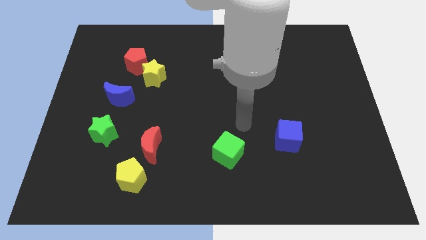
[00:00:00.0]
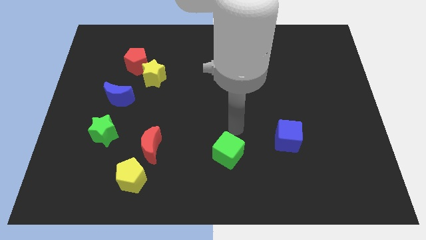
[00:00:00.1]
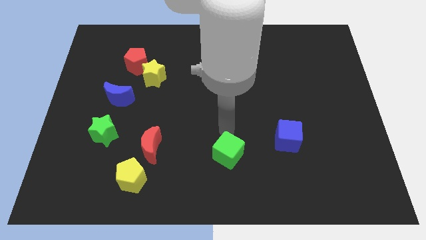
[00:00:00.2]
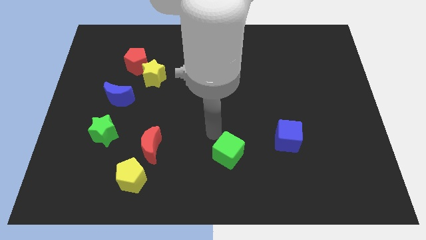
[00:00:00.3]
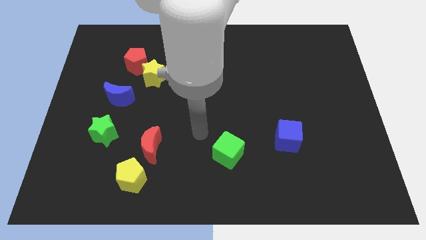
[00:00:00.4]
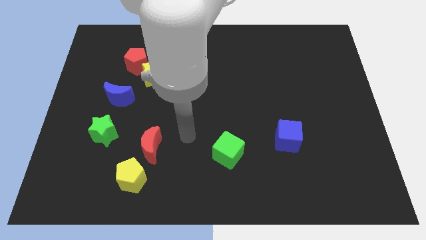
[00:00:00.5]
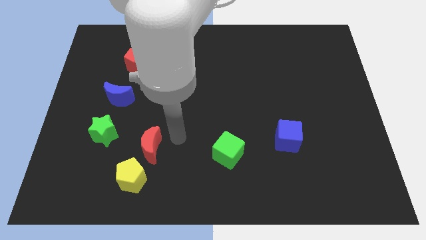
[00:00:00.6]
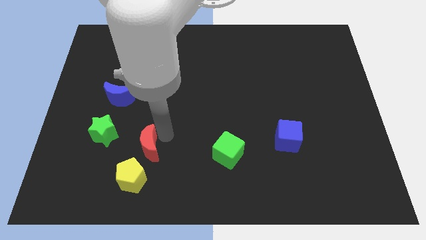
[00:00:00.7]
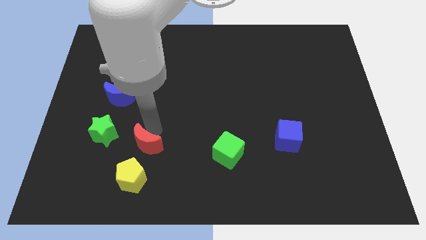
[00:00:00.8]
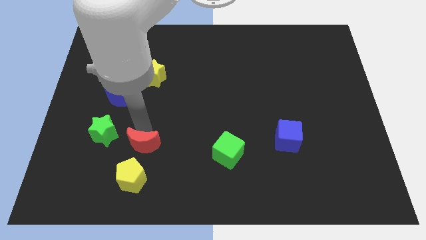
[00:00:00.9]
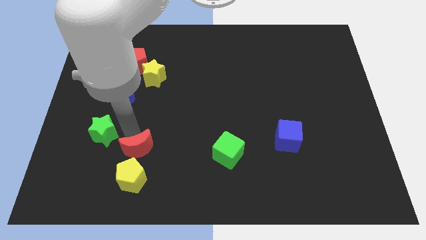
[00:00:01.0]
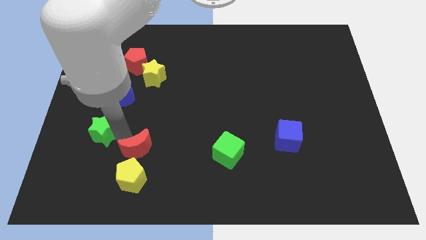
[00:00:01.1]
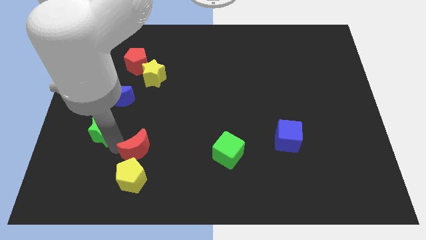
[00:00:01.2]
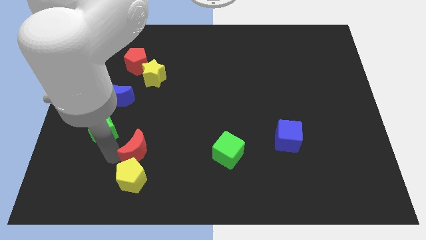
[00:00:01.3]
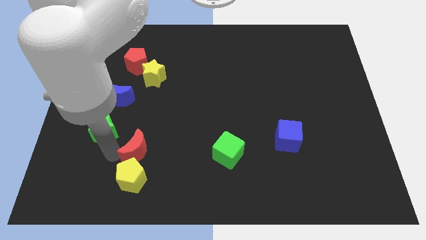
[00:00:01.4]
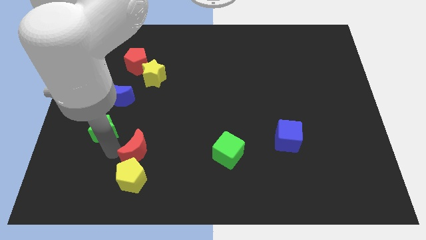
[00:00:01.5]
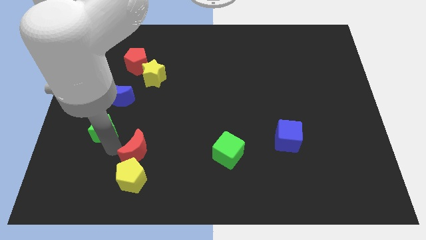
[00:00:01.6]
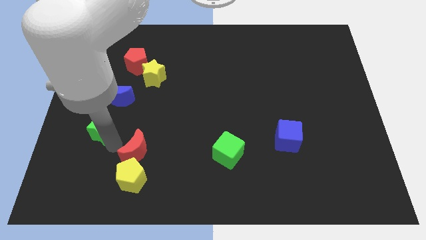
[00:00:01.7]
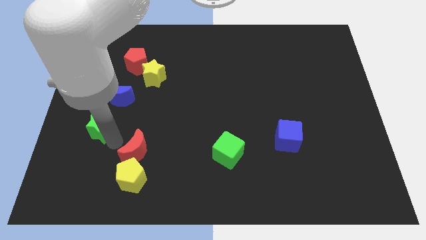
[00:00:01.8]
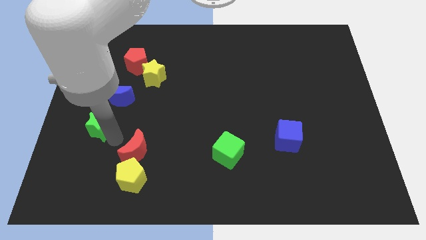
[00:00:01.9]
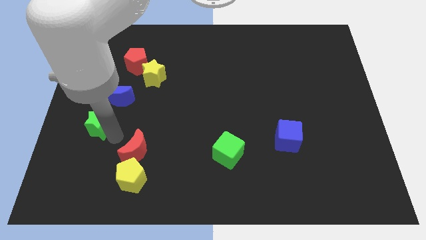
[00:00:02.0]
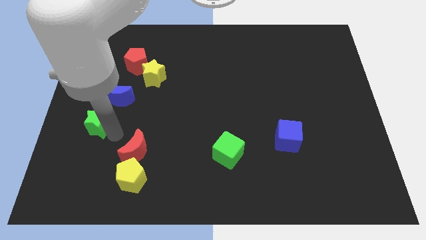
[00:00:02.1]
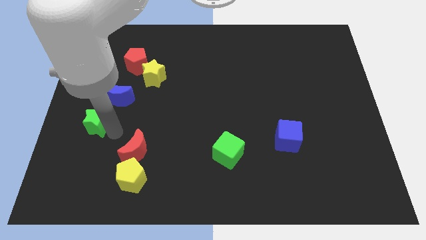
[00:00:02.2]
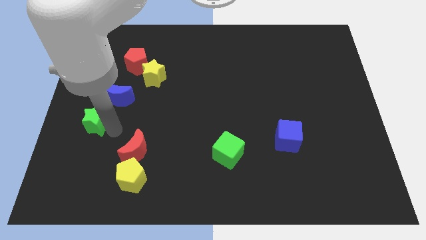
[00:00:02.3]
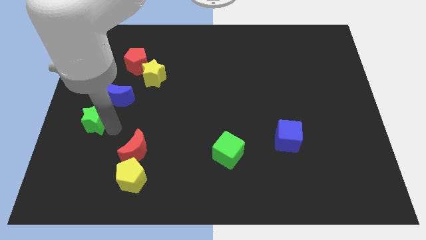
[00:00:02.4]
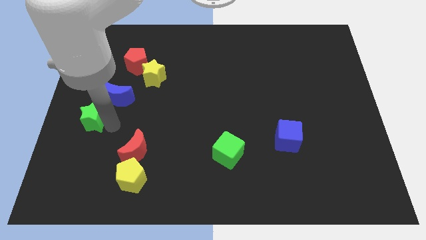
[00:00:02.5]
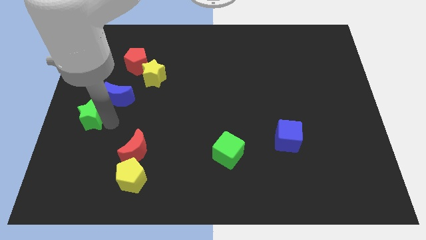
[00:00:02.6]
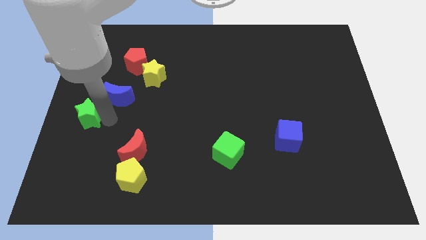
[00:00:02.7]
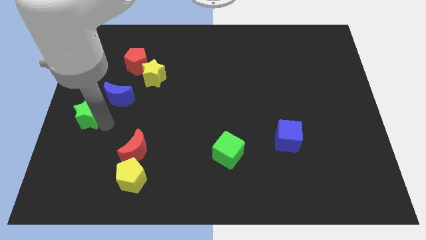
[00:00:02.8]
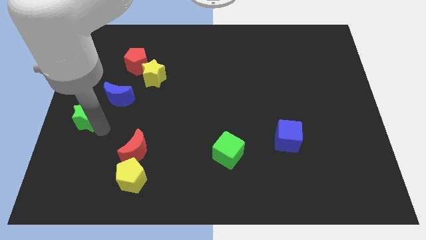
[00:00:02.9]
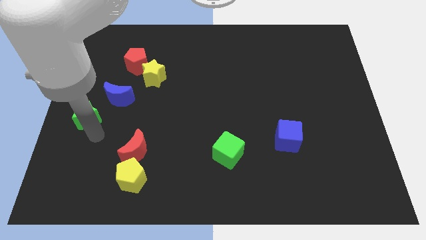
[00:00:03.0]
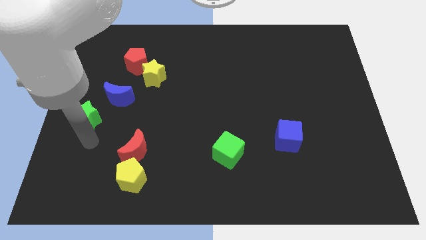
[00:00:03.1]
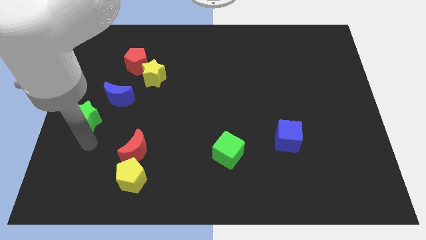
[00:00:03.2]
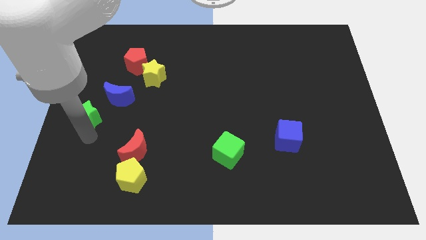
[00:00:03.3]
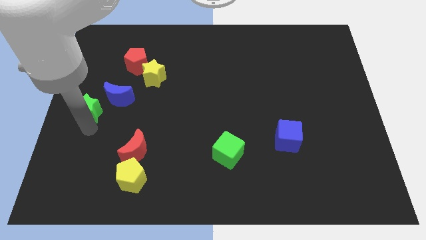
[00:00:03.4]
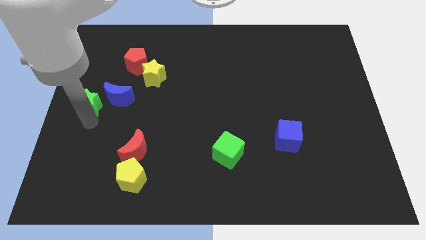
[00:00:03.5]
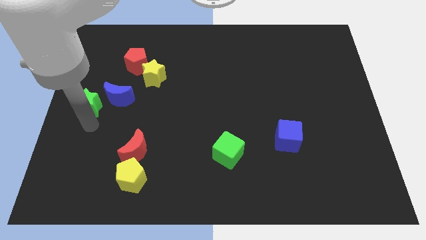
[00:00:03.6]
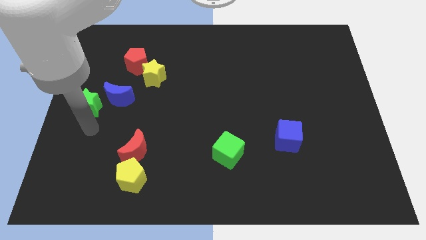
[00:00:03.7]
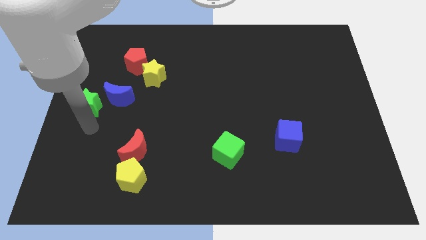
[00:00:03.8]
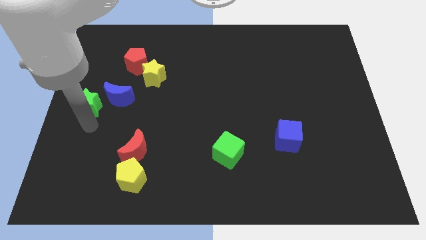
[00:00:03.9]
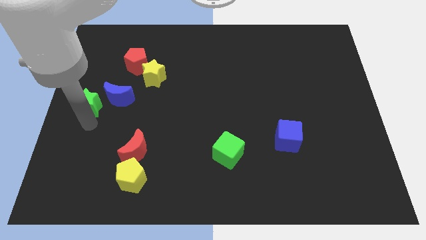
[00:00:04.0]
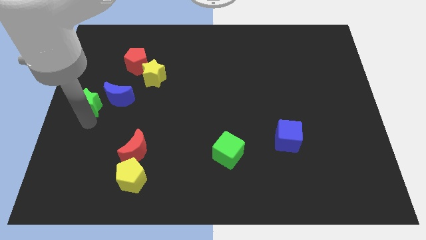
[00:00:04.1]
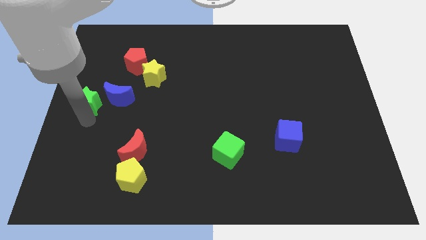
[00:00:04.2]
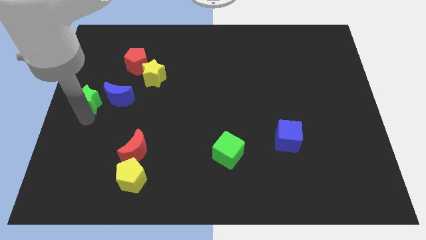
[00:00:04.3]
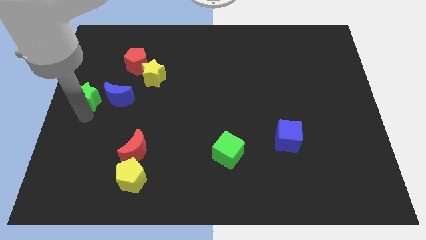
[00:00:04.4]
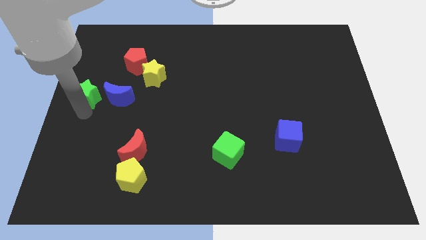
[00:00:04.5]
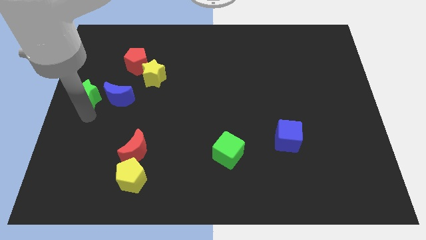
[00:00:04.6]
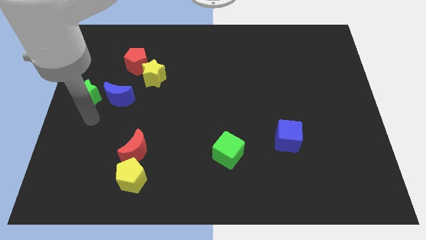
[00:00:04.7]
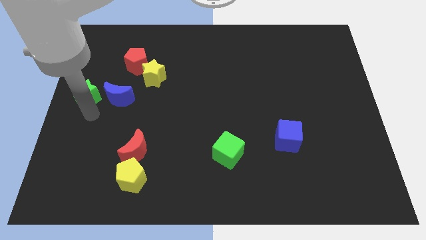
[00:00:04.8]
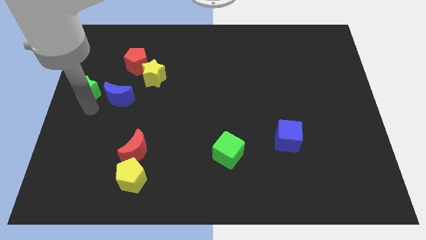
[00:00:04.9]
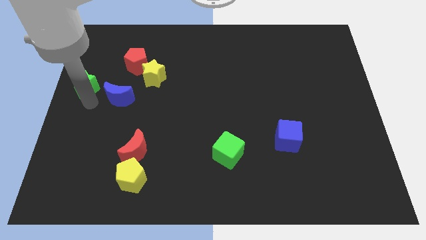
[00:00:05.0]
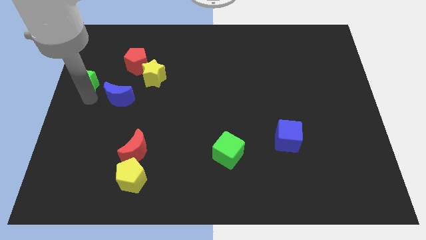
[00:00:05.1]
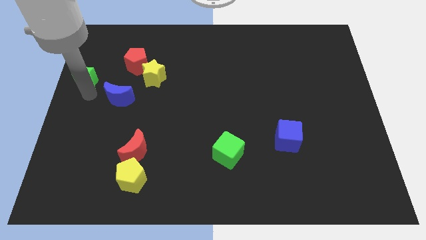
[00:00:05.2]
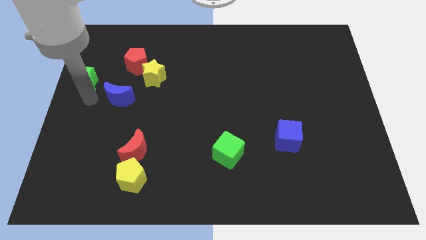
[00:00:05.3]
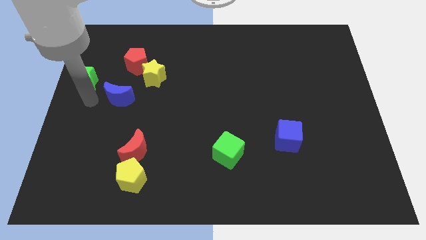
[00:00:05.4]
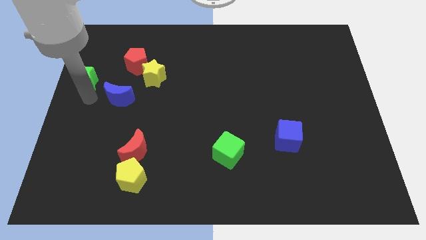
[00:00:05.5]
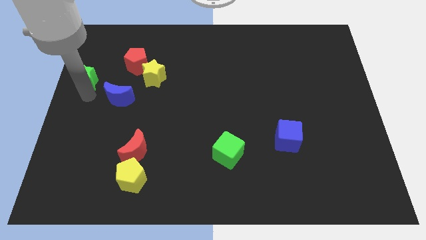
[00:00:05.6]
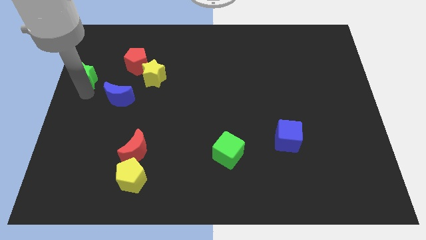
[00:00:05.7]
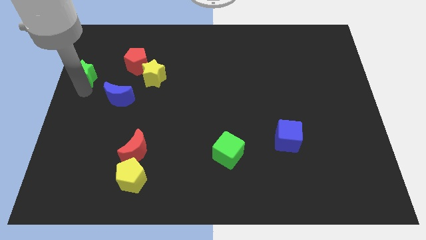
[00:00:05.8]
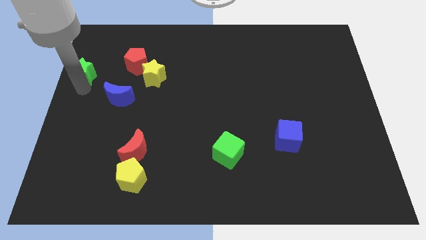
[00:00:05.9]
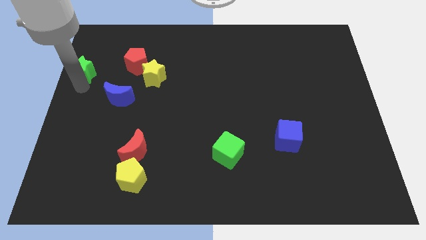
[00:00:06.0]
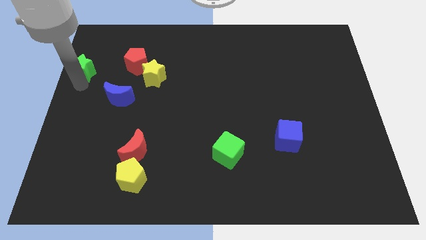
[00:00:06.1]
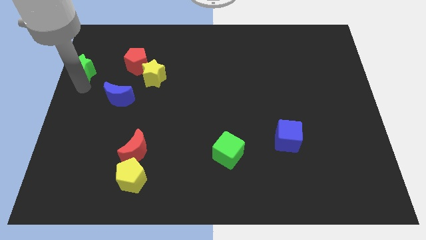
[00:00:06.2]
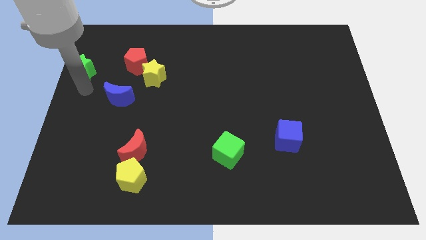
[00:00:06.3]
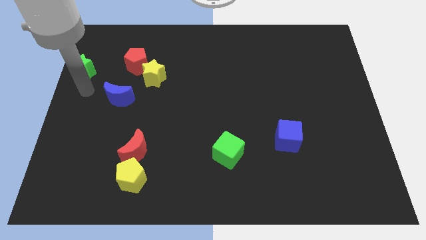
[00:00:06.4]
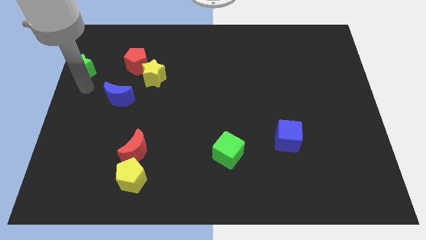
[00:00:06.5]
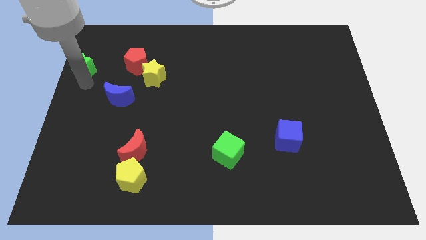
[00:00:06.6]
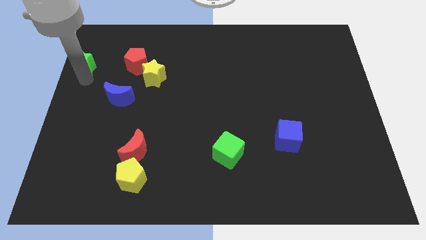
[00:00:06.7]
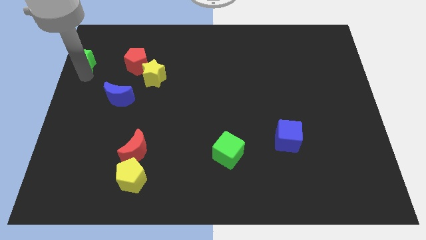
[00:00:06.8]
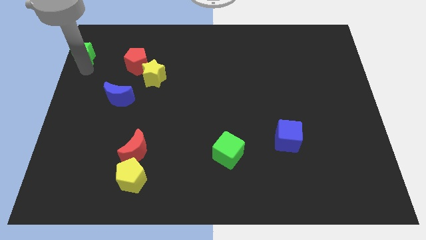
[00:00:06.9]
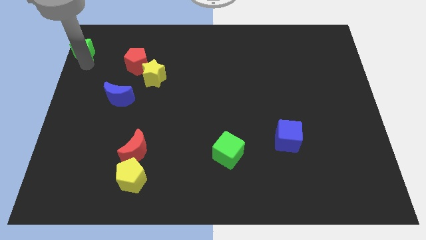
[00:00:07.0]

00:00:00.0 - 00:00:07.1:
put the green star to the upper left corner
